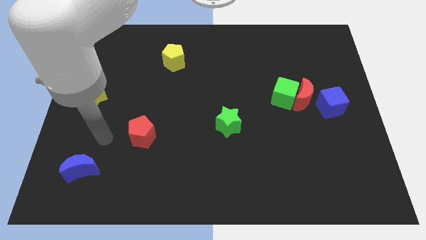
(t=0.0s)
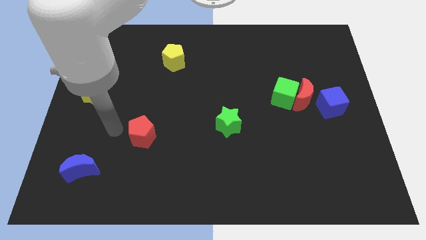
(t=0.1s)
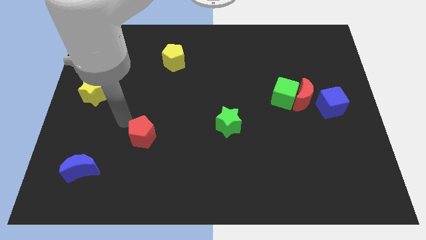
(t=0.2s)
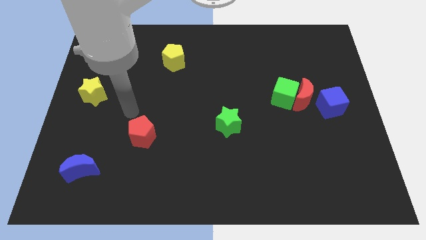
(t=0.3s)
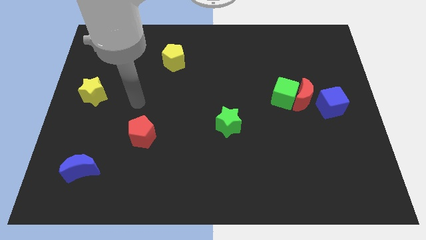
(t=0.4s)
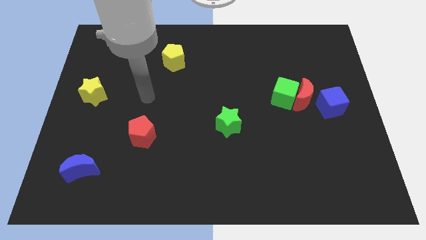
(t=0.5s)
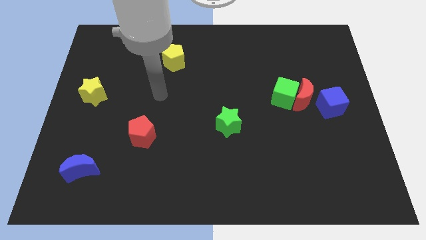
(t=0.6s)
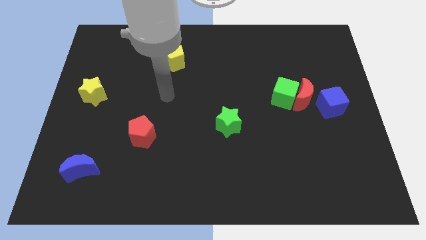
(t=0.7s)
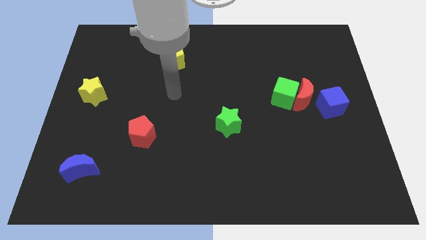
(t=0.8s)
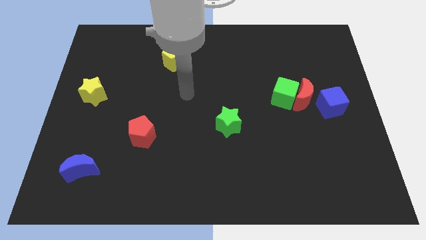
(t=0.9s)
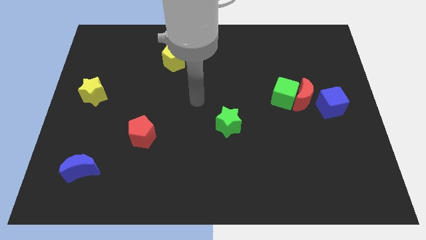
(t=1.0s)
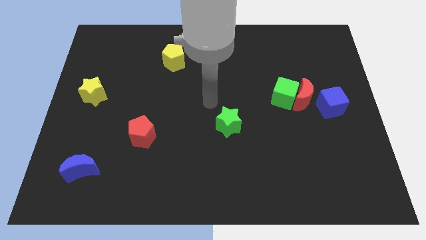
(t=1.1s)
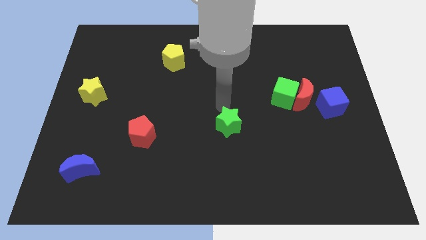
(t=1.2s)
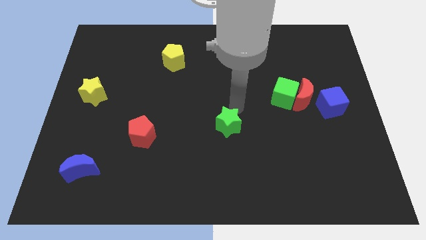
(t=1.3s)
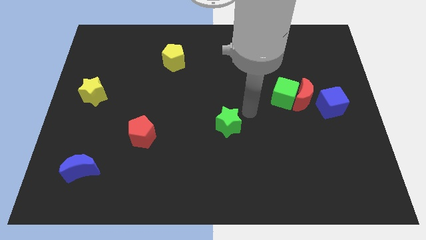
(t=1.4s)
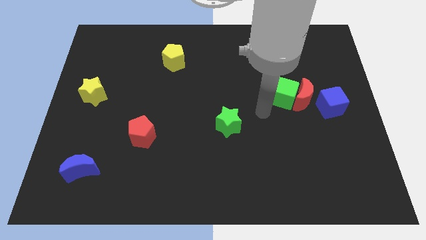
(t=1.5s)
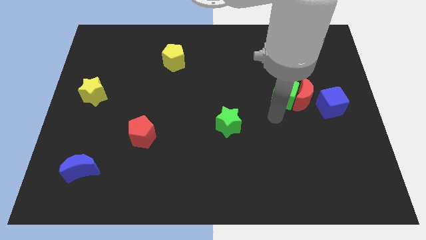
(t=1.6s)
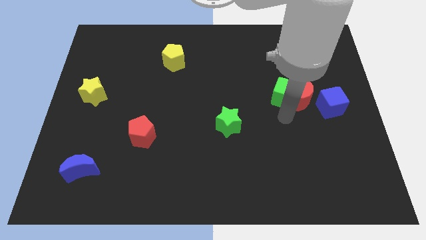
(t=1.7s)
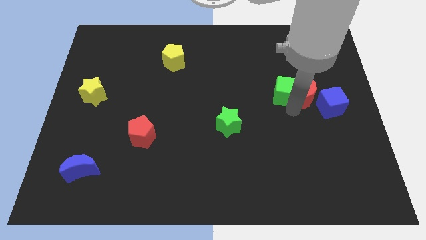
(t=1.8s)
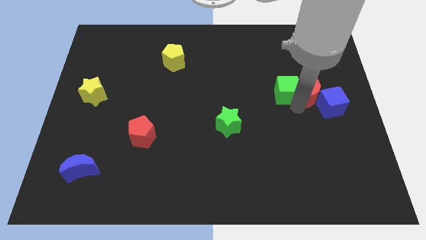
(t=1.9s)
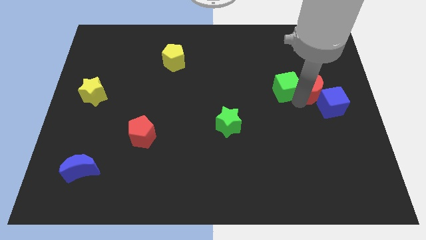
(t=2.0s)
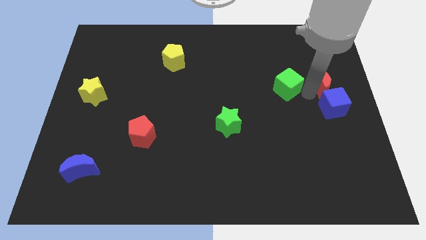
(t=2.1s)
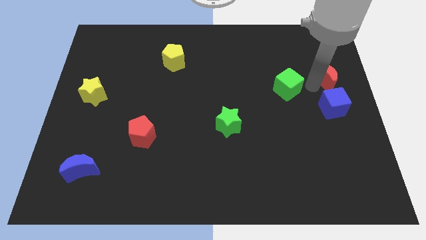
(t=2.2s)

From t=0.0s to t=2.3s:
pull the green cube apart from the red moon

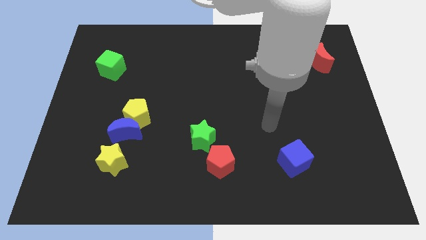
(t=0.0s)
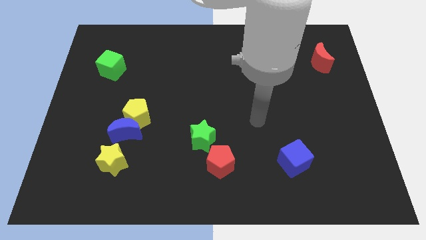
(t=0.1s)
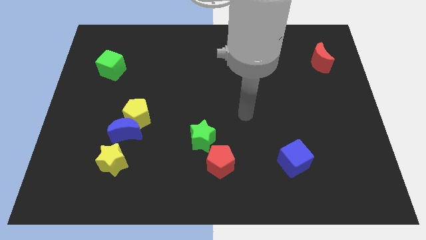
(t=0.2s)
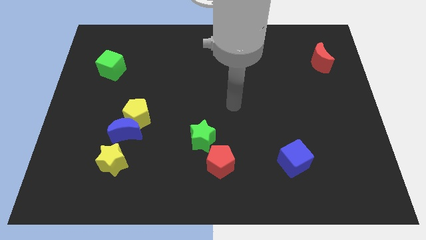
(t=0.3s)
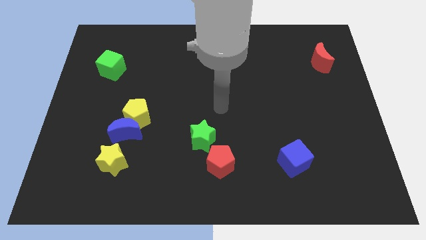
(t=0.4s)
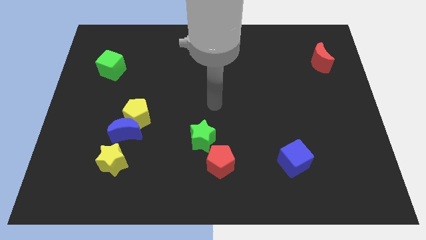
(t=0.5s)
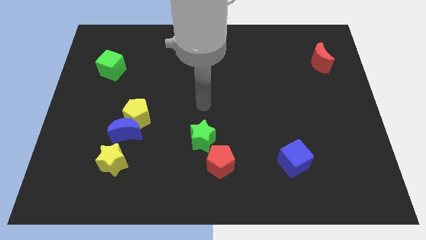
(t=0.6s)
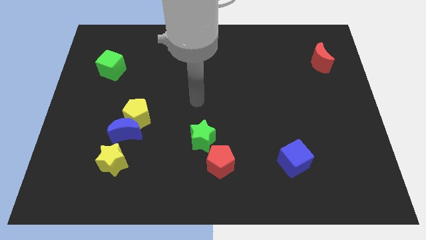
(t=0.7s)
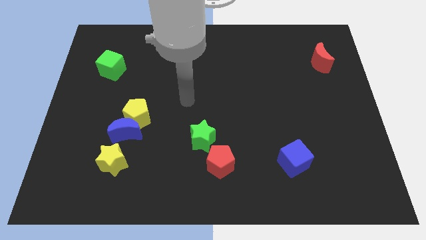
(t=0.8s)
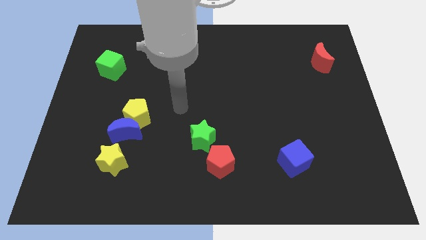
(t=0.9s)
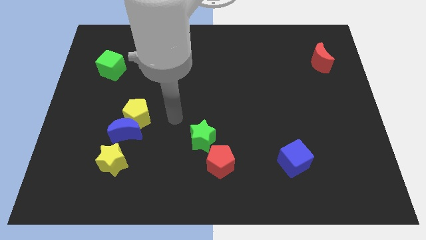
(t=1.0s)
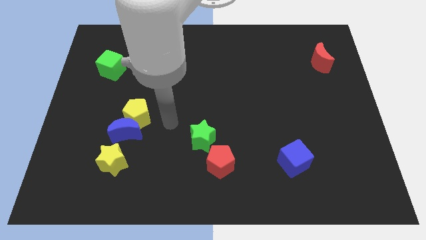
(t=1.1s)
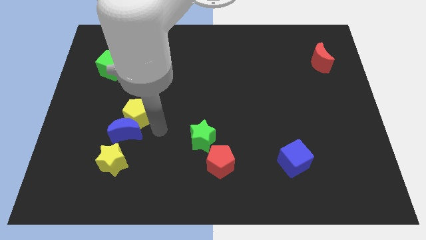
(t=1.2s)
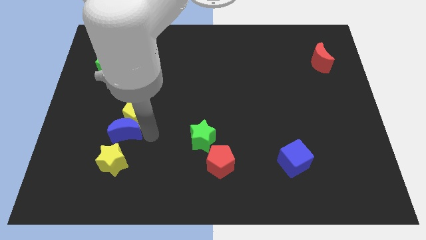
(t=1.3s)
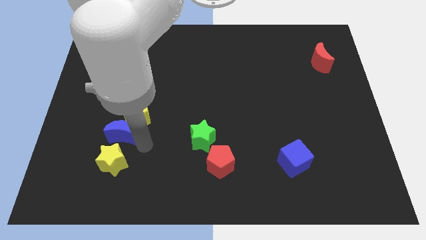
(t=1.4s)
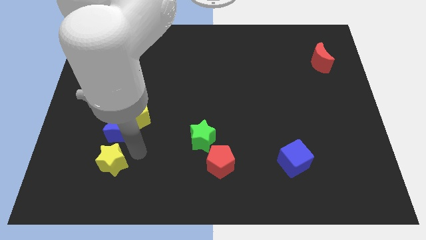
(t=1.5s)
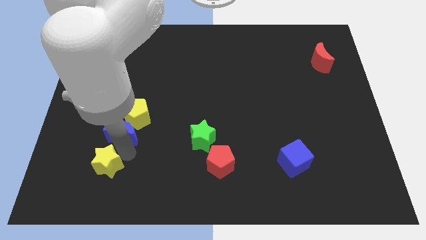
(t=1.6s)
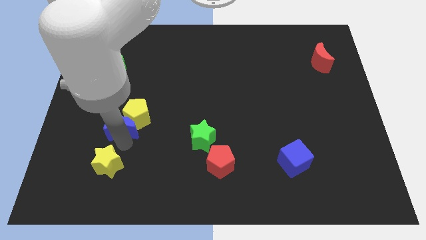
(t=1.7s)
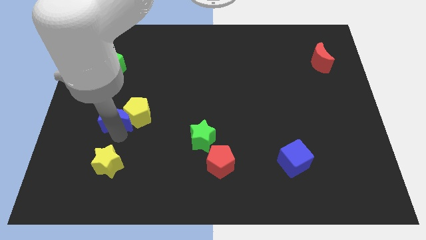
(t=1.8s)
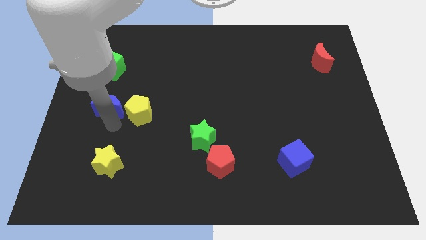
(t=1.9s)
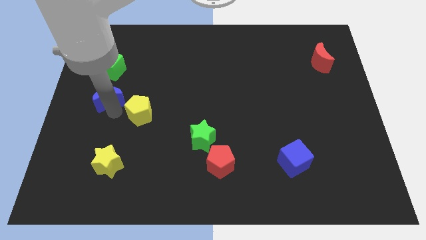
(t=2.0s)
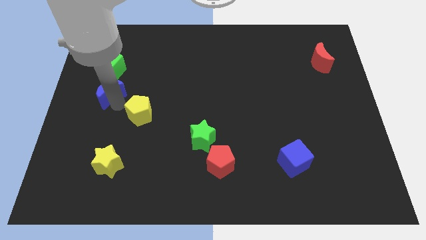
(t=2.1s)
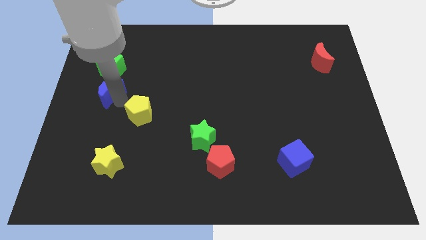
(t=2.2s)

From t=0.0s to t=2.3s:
separate the yellow pentagon from the blue moon

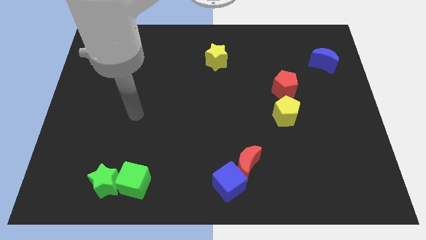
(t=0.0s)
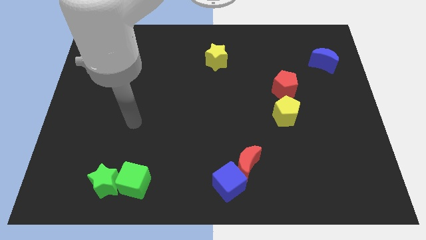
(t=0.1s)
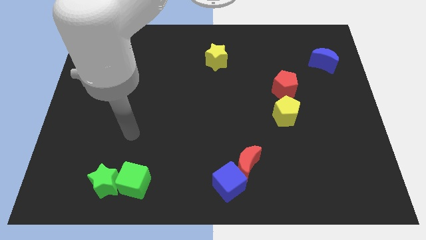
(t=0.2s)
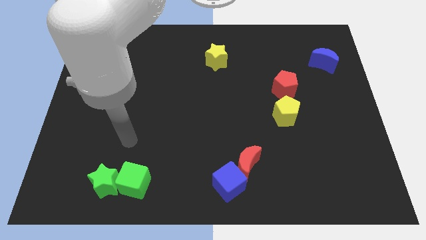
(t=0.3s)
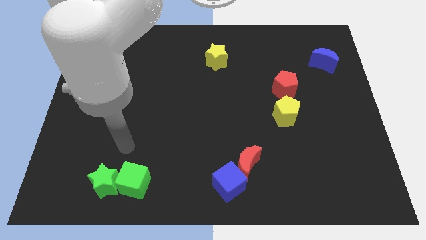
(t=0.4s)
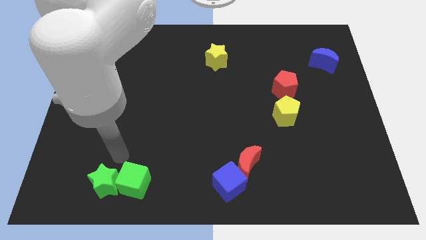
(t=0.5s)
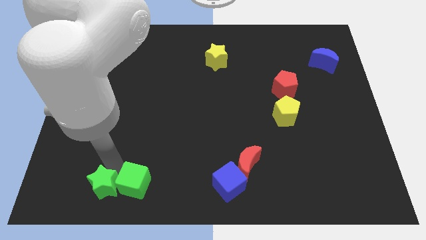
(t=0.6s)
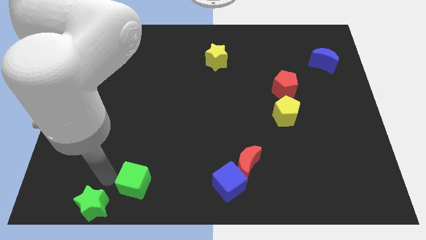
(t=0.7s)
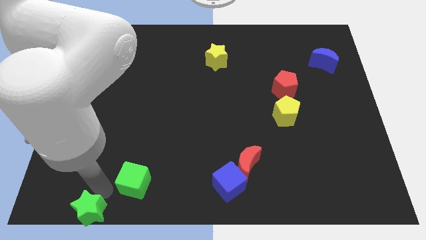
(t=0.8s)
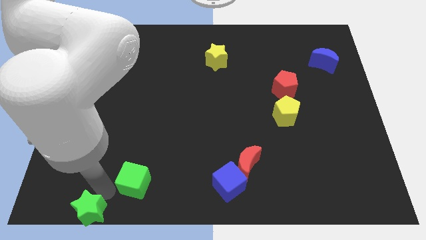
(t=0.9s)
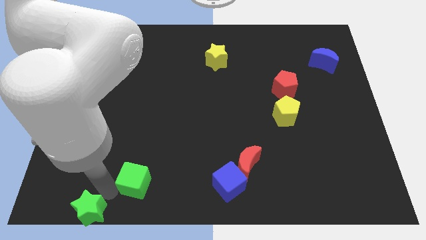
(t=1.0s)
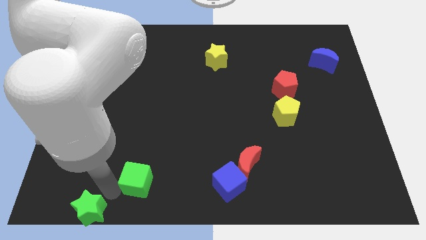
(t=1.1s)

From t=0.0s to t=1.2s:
pull the green cube apart from the green star

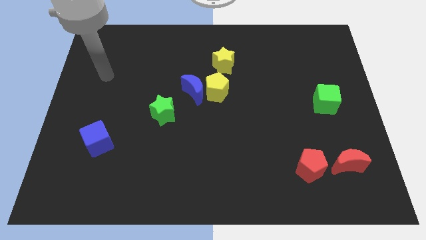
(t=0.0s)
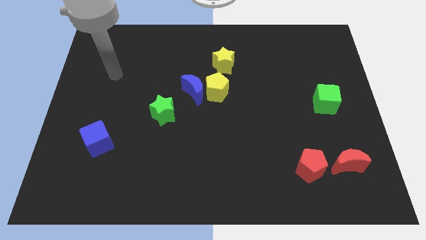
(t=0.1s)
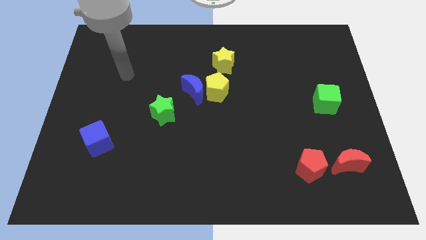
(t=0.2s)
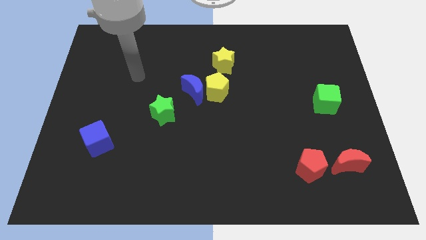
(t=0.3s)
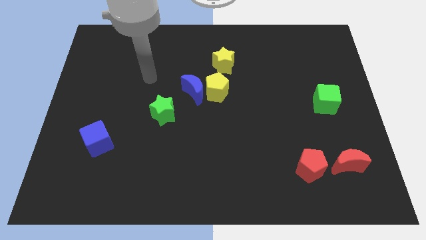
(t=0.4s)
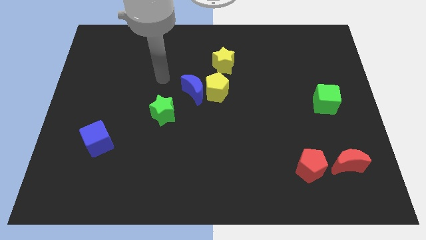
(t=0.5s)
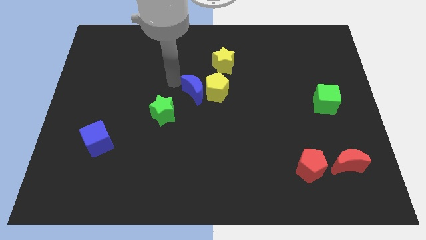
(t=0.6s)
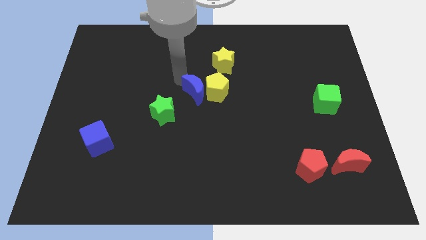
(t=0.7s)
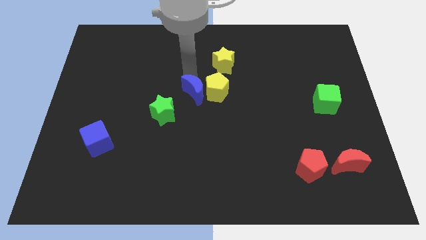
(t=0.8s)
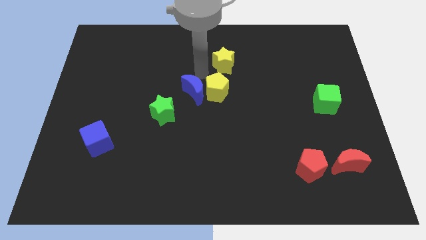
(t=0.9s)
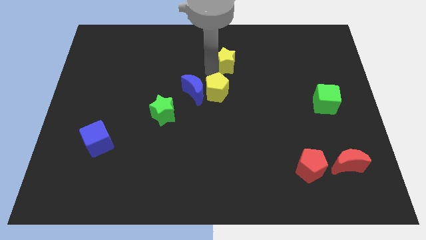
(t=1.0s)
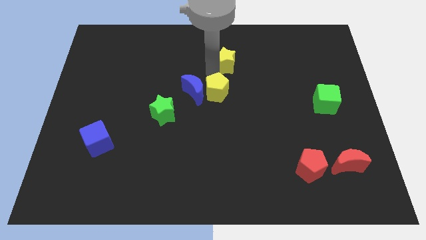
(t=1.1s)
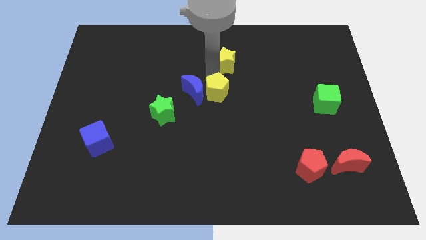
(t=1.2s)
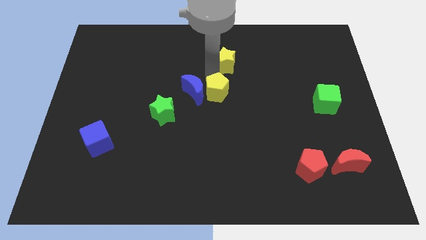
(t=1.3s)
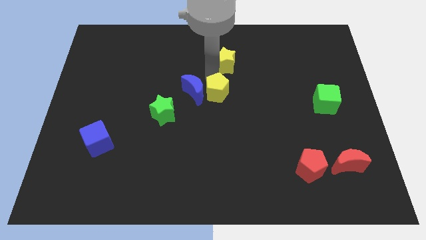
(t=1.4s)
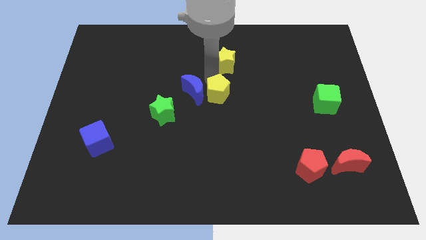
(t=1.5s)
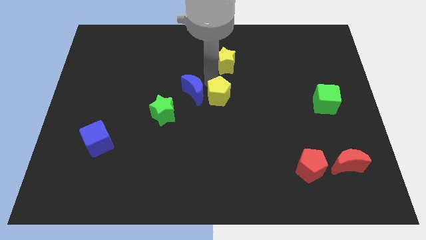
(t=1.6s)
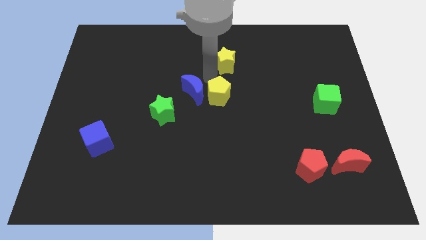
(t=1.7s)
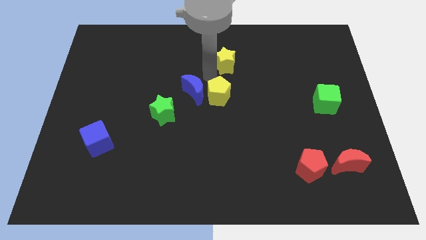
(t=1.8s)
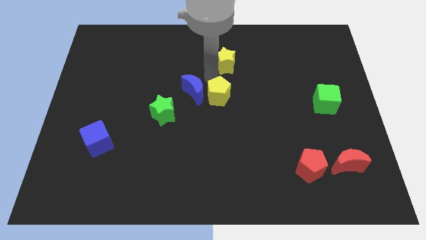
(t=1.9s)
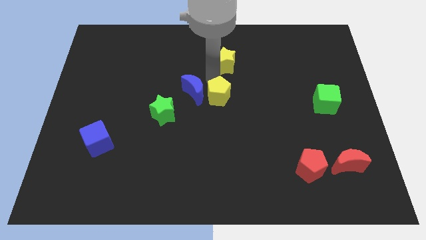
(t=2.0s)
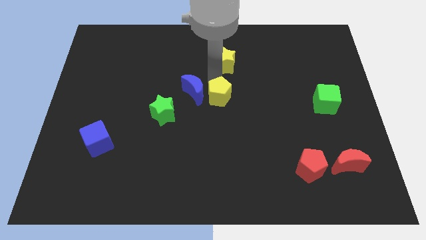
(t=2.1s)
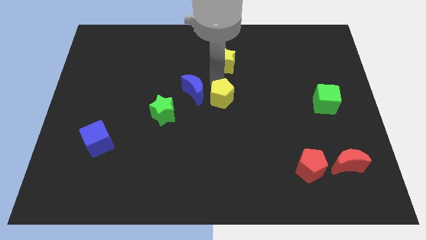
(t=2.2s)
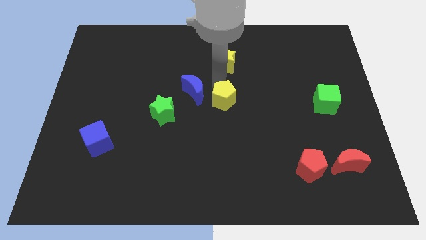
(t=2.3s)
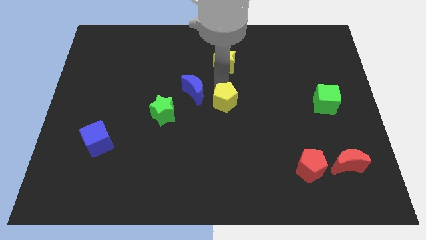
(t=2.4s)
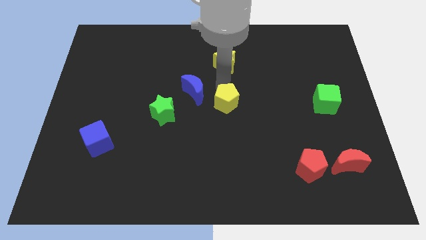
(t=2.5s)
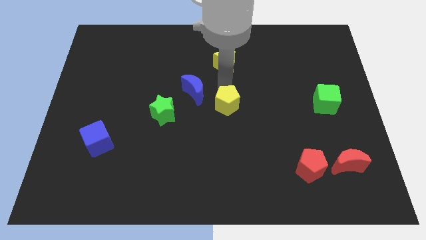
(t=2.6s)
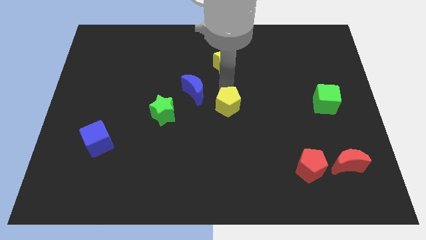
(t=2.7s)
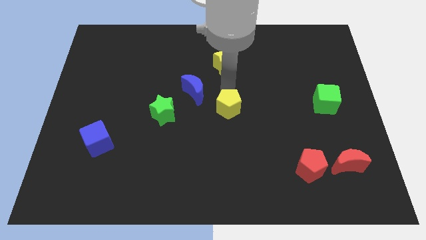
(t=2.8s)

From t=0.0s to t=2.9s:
pull the yellow pentagon apart from the blue moon and yellow star

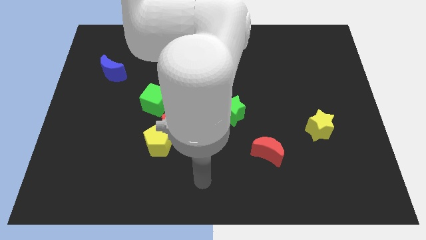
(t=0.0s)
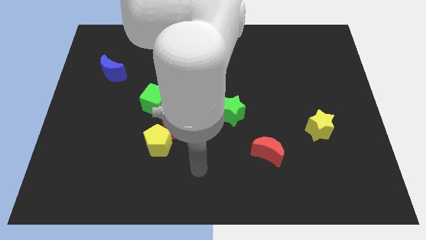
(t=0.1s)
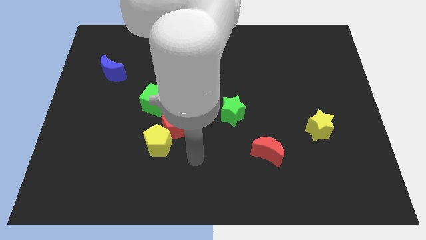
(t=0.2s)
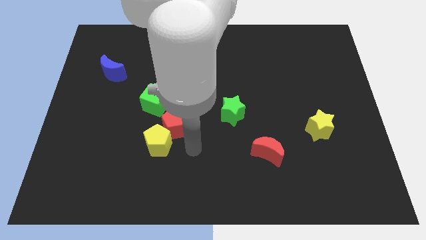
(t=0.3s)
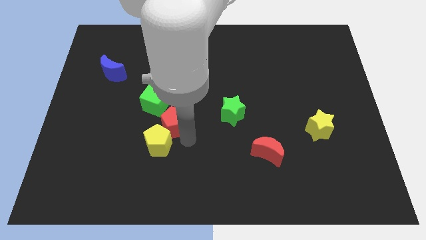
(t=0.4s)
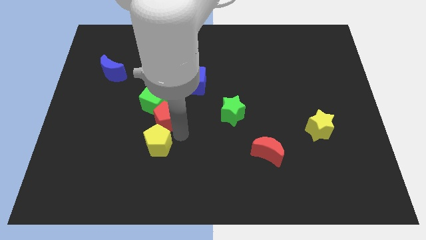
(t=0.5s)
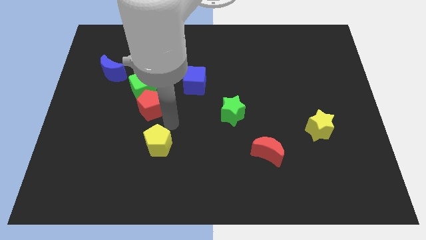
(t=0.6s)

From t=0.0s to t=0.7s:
separate the yellow pentagon from the red pentagon
